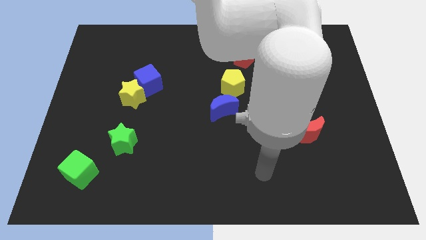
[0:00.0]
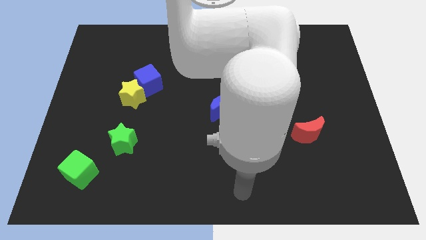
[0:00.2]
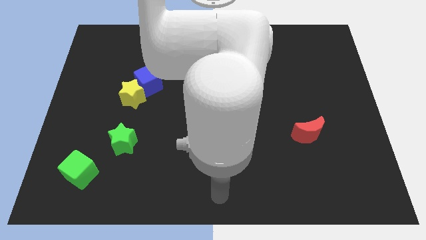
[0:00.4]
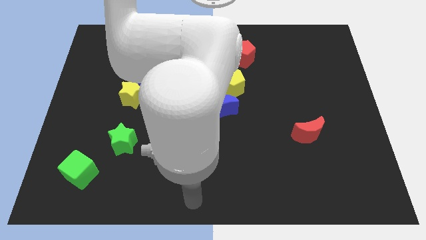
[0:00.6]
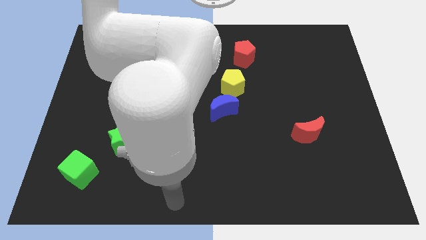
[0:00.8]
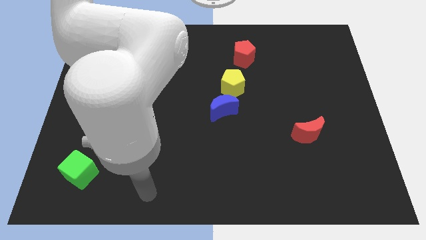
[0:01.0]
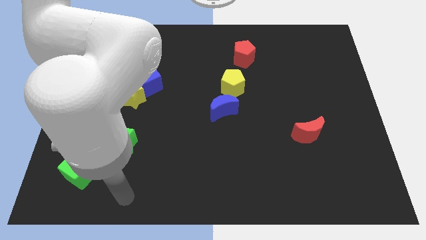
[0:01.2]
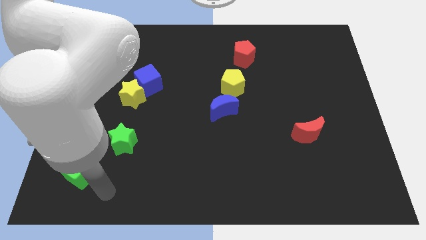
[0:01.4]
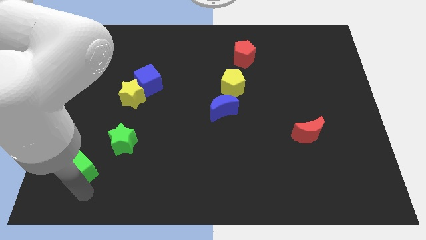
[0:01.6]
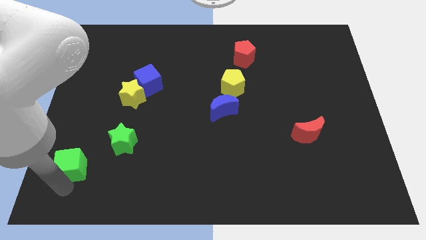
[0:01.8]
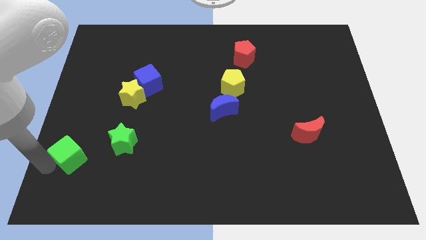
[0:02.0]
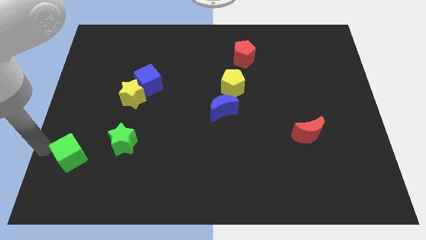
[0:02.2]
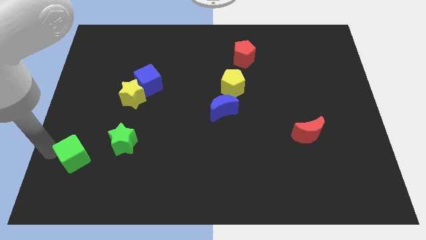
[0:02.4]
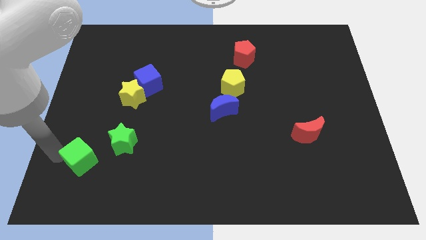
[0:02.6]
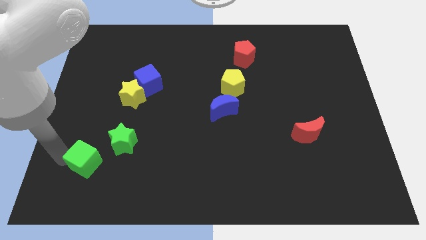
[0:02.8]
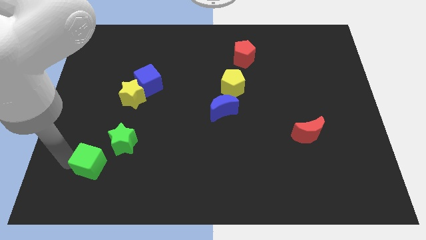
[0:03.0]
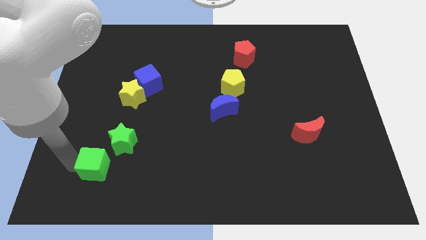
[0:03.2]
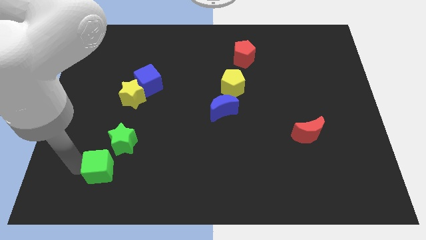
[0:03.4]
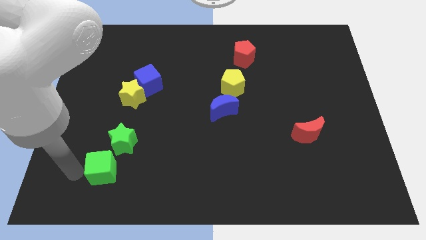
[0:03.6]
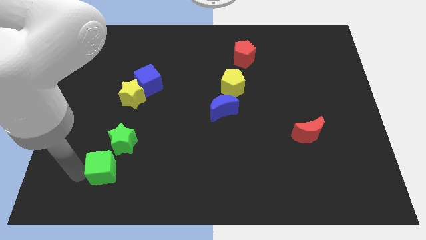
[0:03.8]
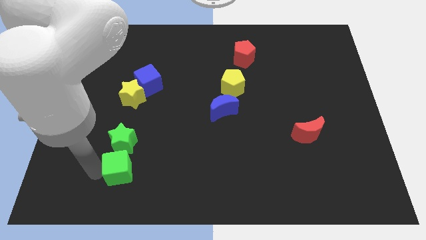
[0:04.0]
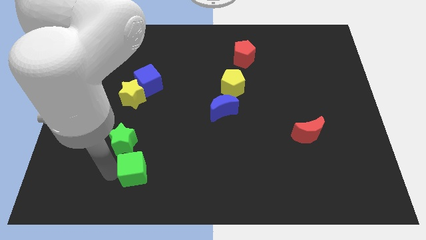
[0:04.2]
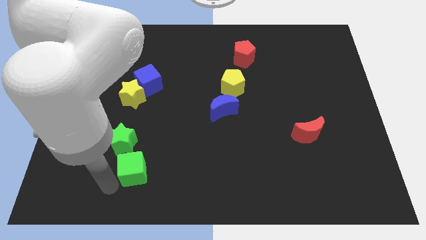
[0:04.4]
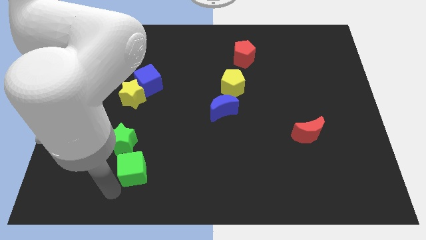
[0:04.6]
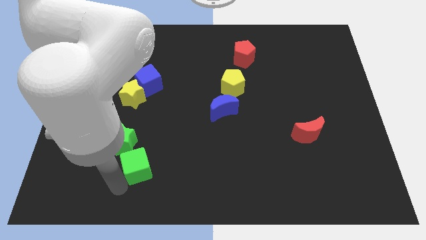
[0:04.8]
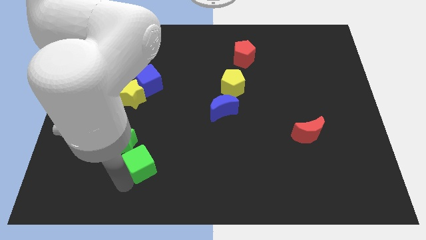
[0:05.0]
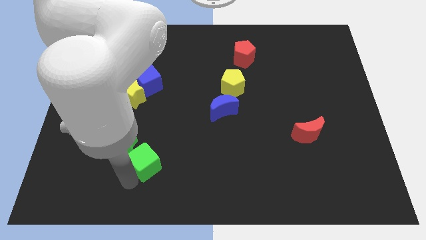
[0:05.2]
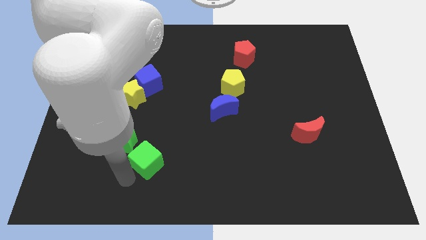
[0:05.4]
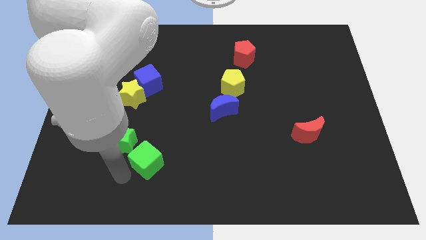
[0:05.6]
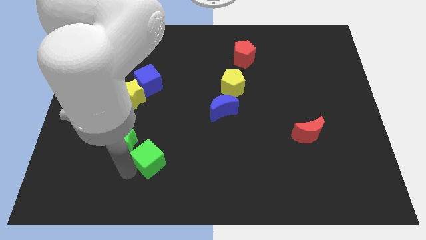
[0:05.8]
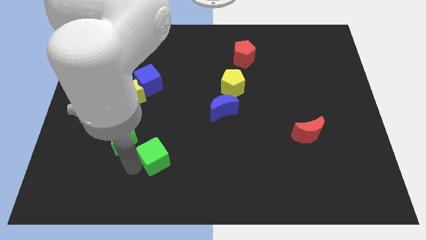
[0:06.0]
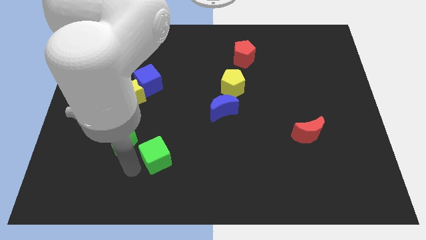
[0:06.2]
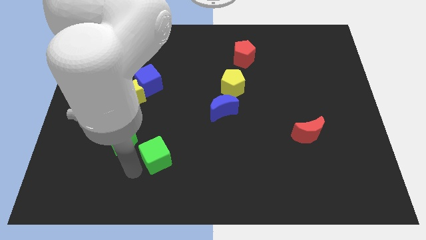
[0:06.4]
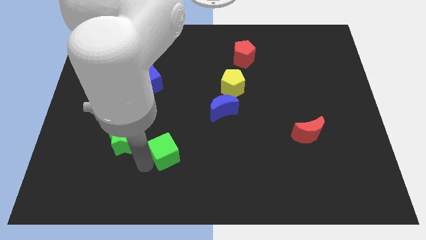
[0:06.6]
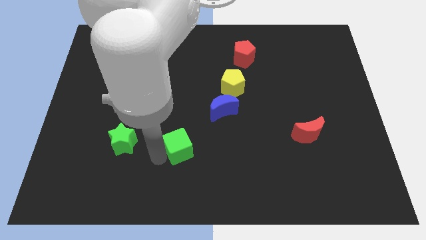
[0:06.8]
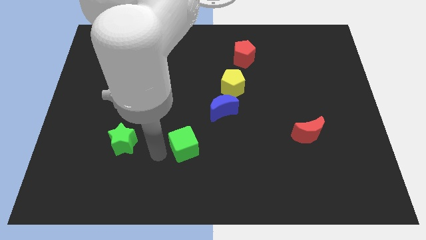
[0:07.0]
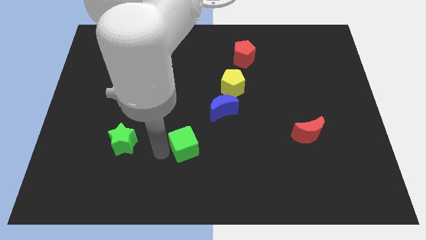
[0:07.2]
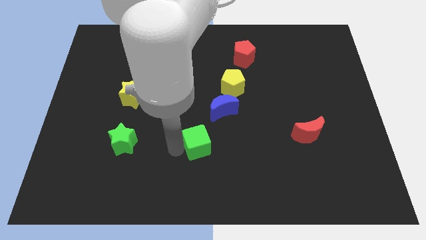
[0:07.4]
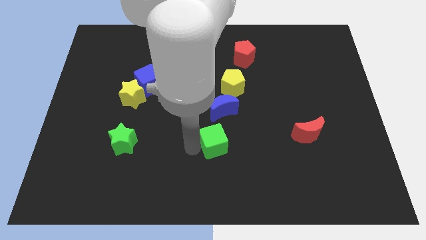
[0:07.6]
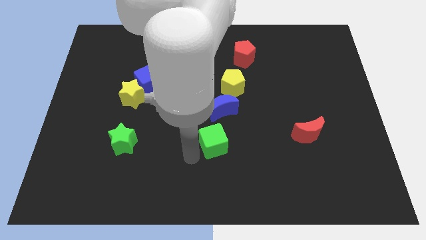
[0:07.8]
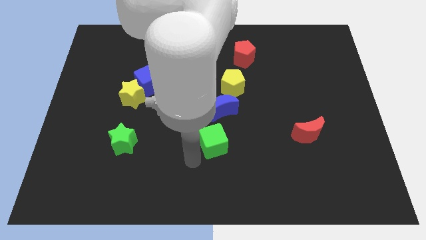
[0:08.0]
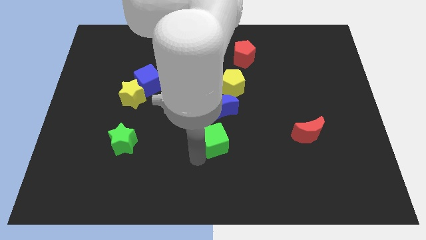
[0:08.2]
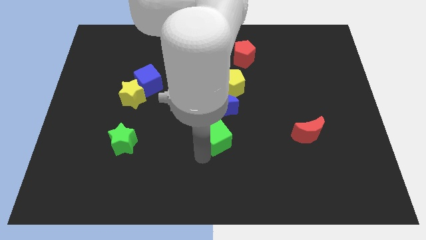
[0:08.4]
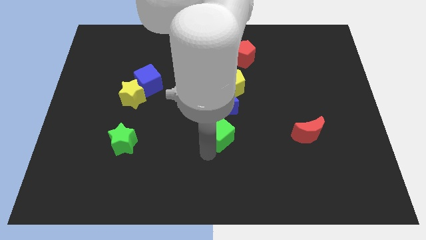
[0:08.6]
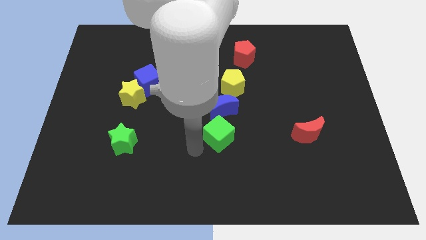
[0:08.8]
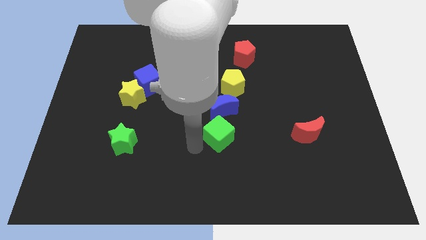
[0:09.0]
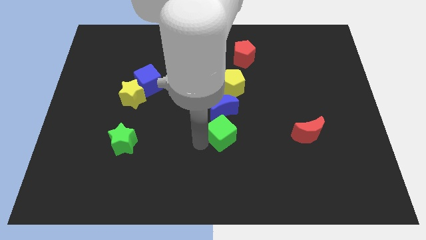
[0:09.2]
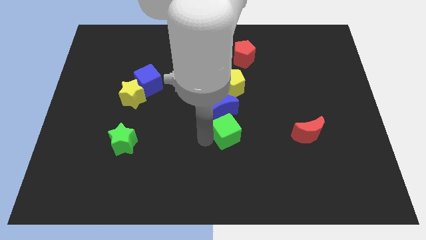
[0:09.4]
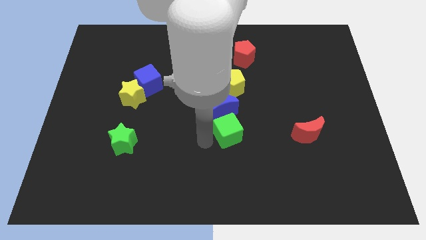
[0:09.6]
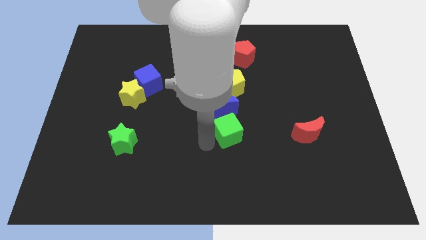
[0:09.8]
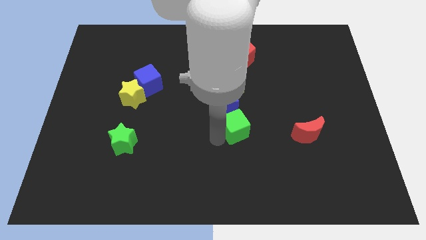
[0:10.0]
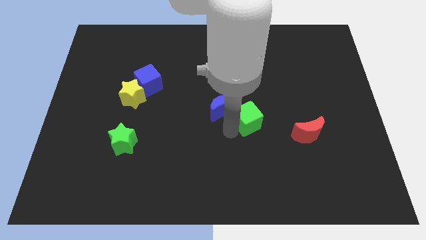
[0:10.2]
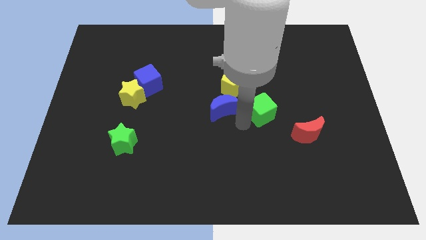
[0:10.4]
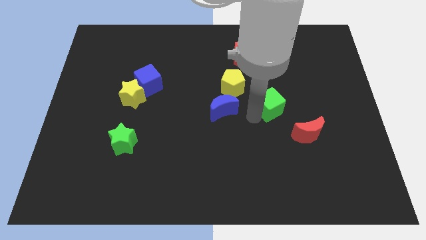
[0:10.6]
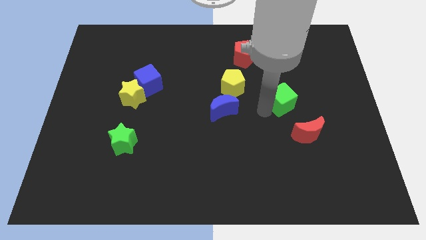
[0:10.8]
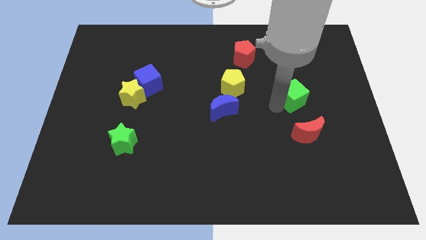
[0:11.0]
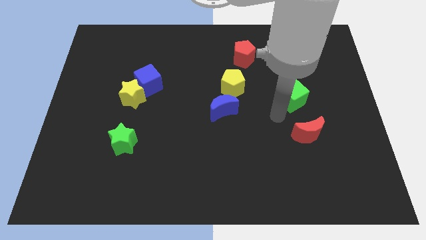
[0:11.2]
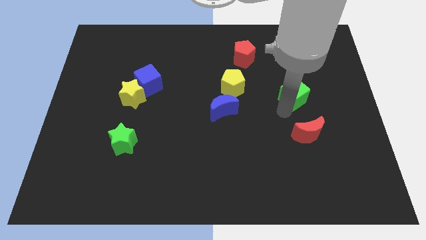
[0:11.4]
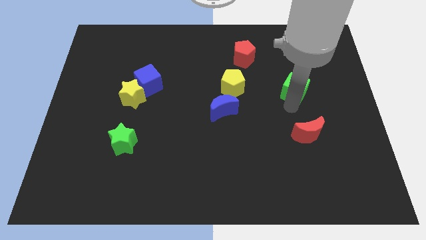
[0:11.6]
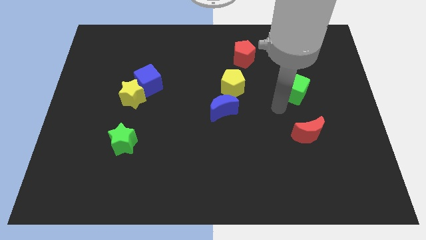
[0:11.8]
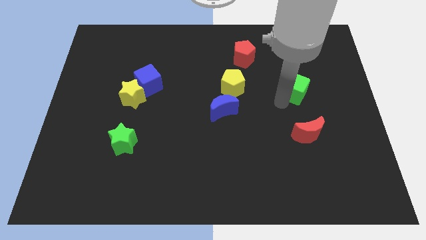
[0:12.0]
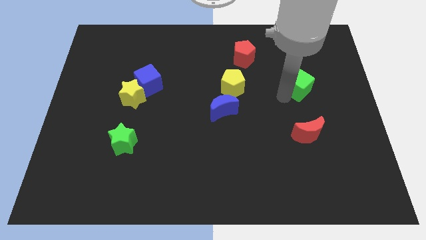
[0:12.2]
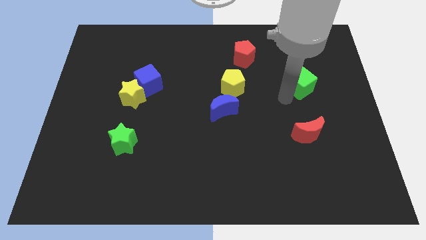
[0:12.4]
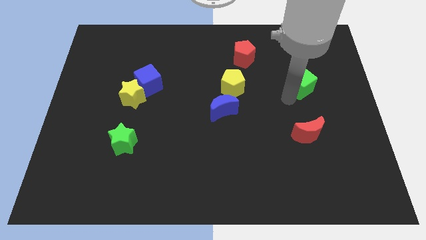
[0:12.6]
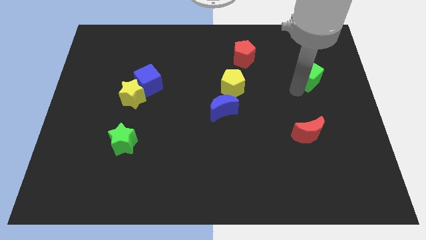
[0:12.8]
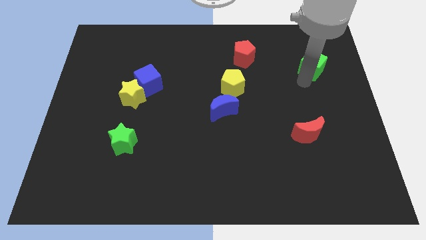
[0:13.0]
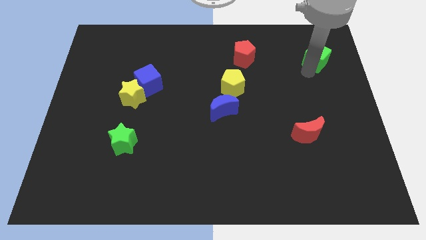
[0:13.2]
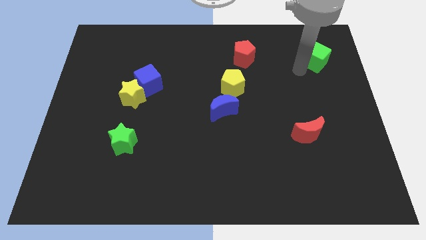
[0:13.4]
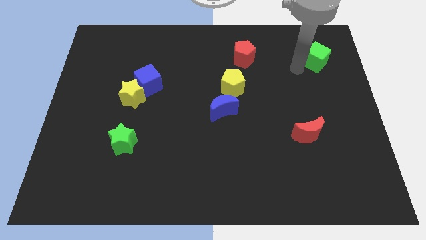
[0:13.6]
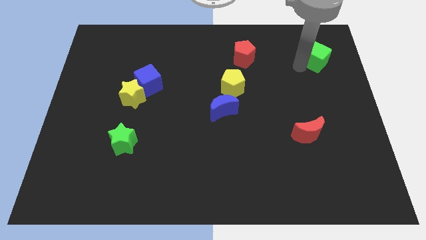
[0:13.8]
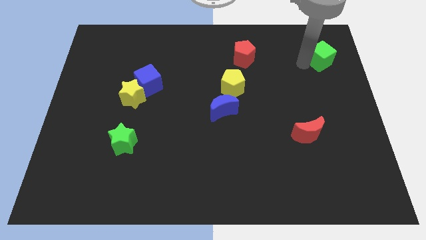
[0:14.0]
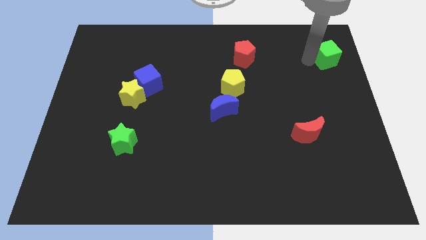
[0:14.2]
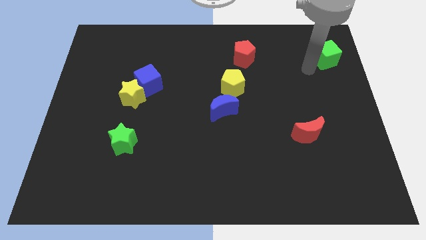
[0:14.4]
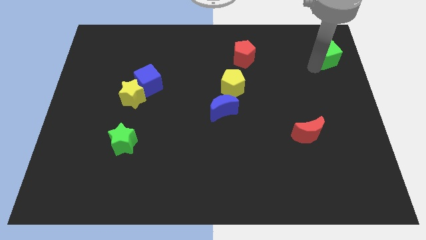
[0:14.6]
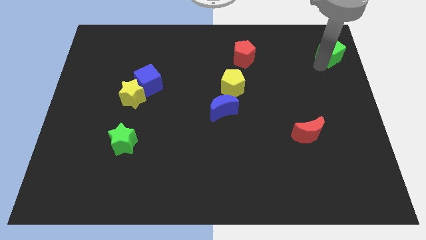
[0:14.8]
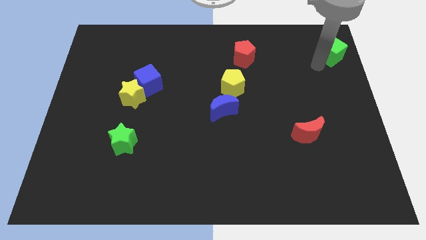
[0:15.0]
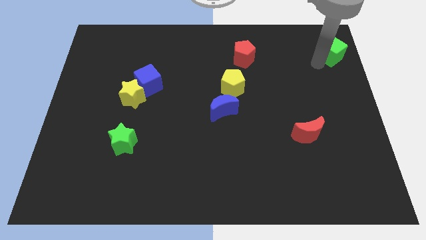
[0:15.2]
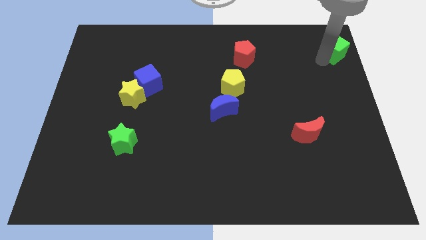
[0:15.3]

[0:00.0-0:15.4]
move the green cube to the top right corner
